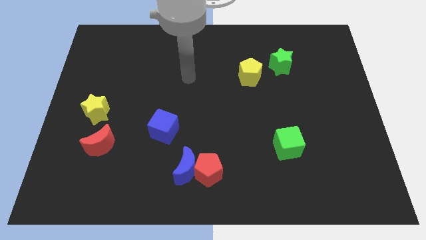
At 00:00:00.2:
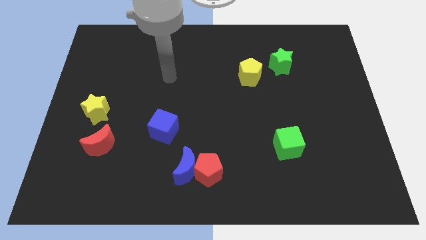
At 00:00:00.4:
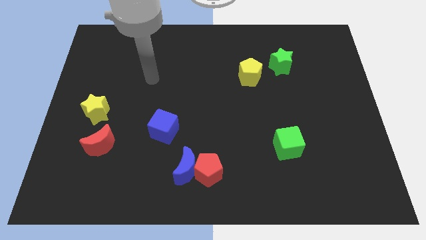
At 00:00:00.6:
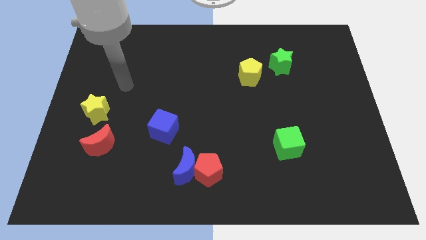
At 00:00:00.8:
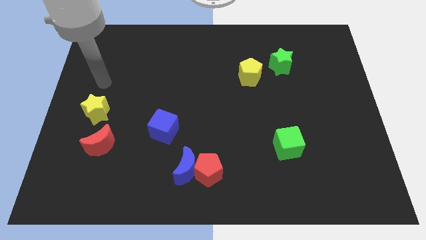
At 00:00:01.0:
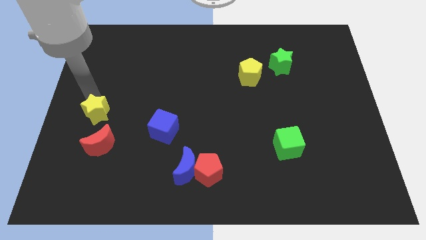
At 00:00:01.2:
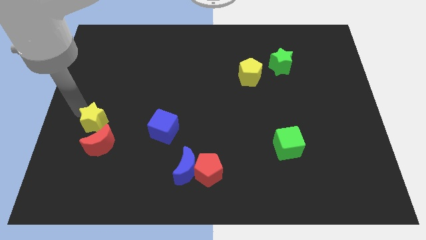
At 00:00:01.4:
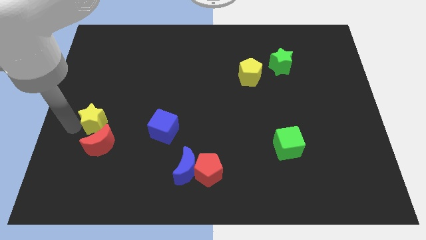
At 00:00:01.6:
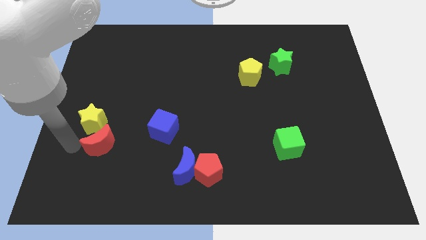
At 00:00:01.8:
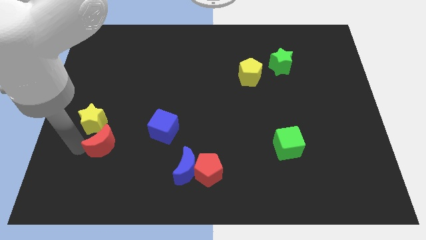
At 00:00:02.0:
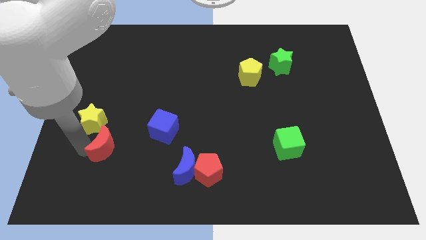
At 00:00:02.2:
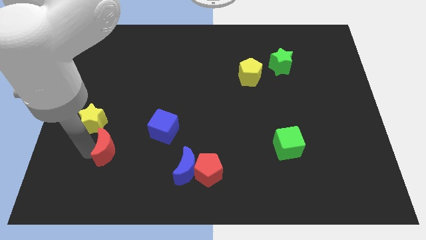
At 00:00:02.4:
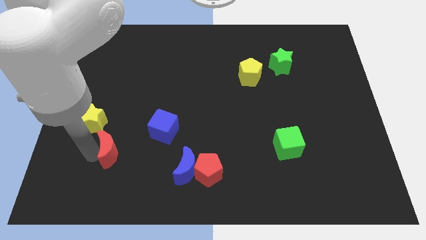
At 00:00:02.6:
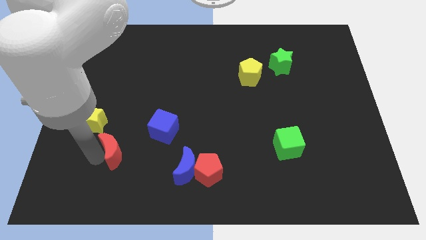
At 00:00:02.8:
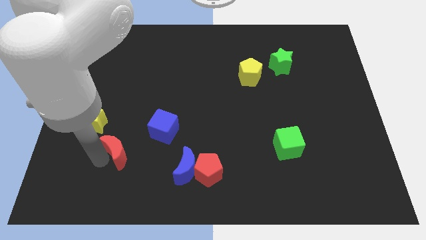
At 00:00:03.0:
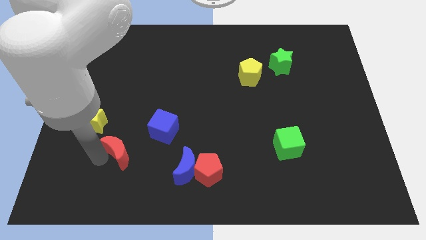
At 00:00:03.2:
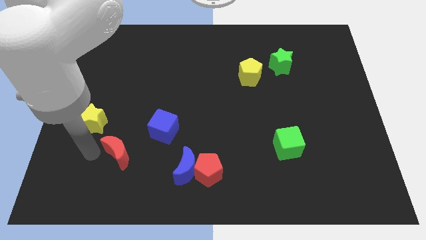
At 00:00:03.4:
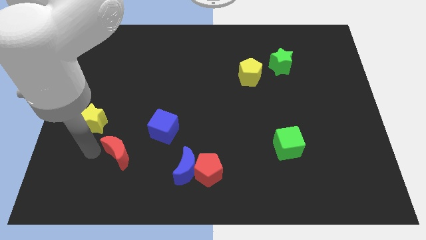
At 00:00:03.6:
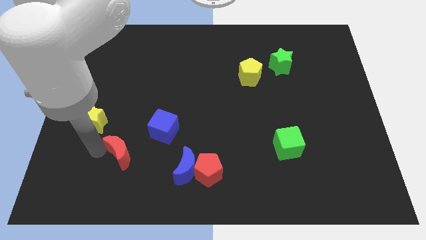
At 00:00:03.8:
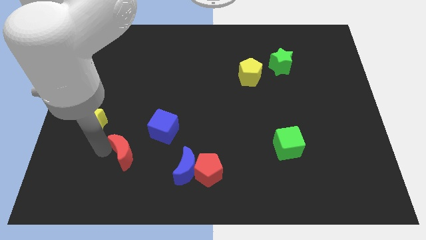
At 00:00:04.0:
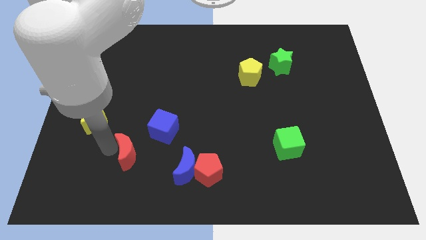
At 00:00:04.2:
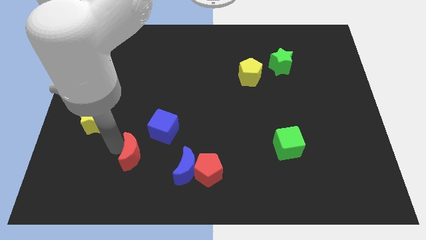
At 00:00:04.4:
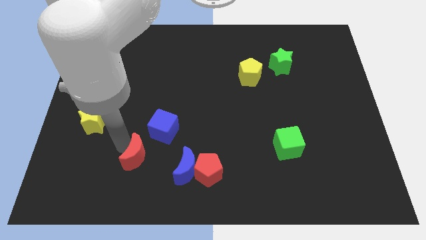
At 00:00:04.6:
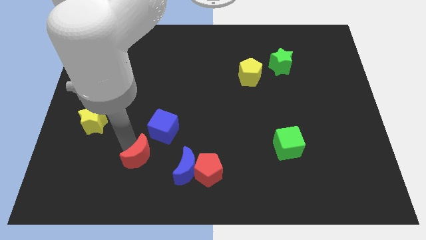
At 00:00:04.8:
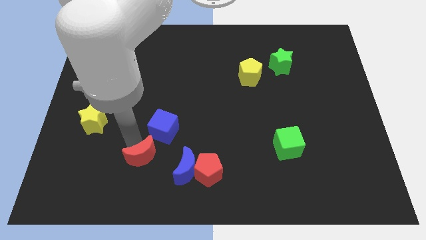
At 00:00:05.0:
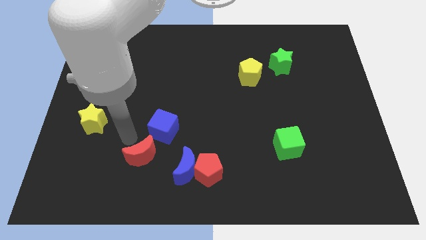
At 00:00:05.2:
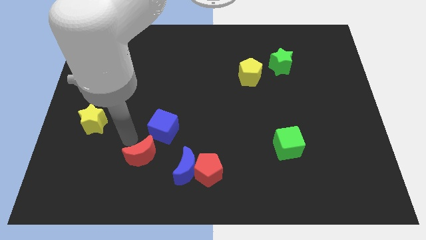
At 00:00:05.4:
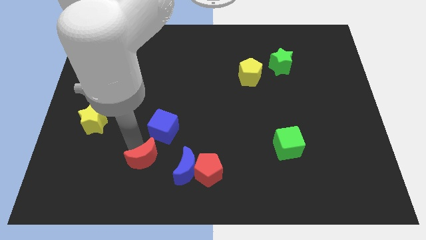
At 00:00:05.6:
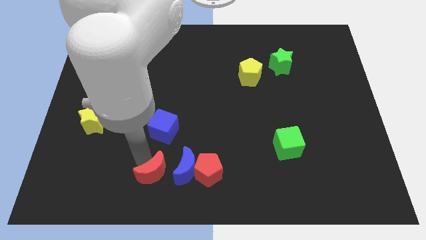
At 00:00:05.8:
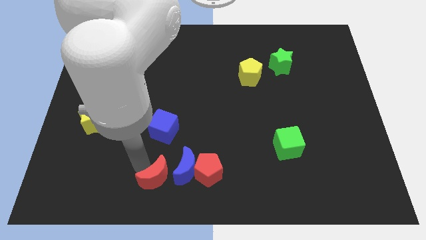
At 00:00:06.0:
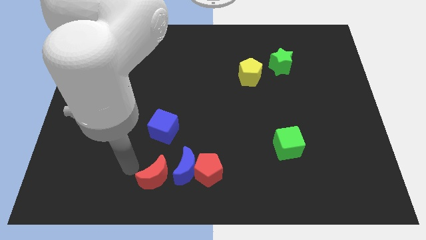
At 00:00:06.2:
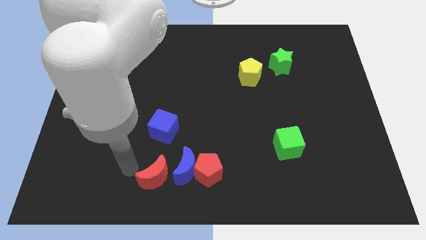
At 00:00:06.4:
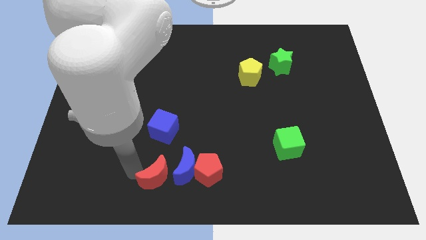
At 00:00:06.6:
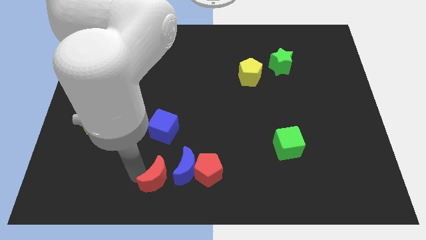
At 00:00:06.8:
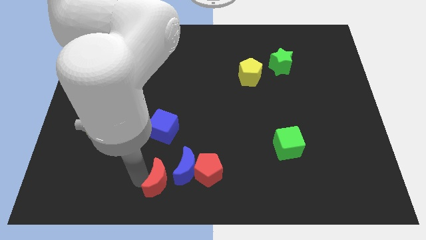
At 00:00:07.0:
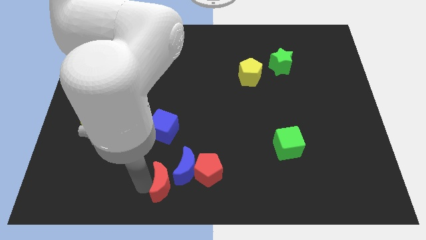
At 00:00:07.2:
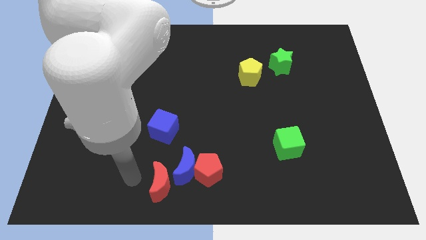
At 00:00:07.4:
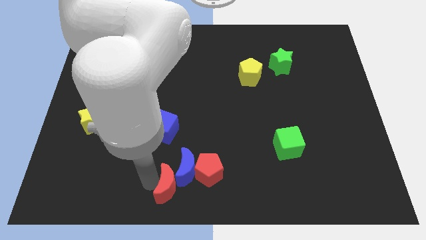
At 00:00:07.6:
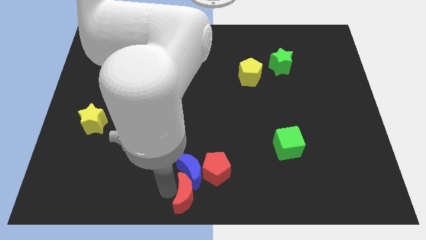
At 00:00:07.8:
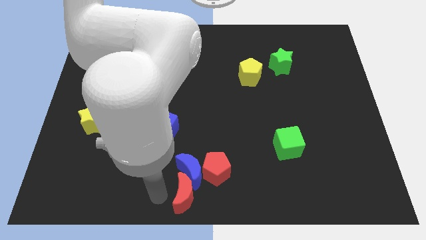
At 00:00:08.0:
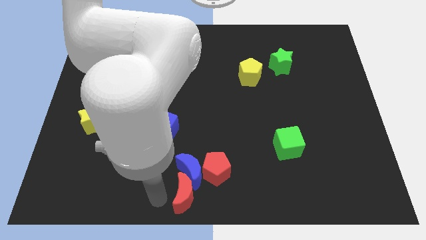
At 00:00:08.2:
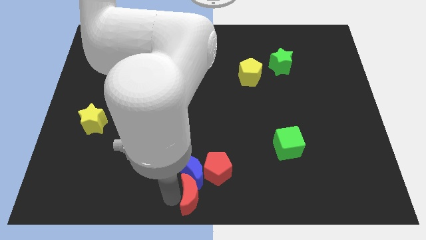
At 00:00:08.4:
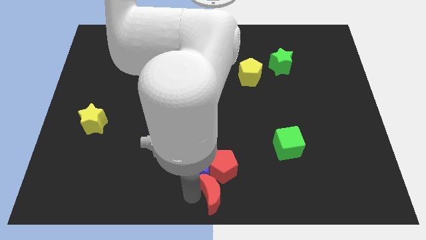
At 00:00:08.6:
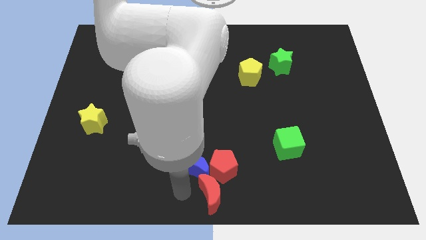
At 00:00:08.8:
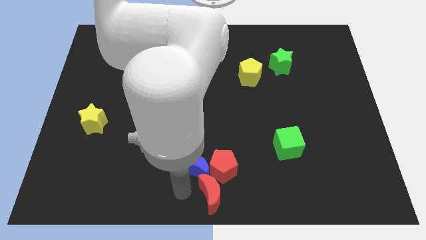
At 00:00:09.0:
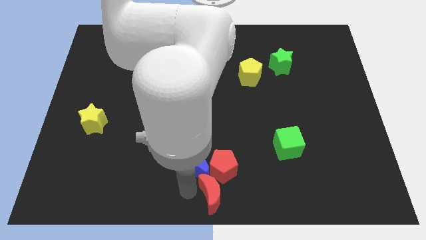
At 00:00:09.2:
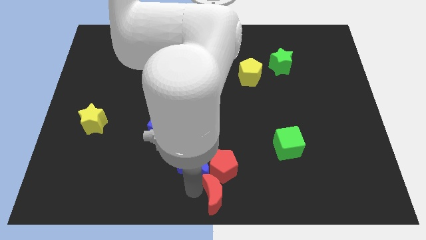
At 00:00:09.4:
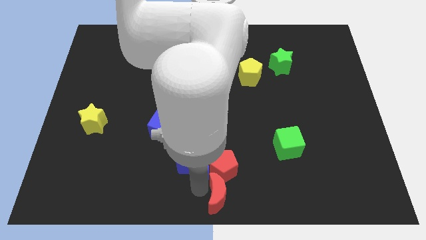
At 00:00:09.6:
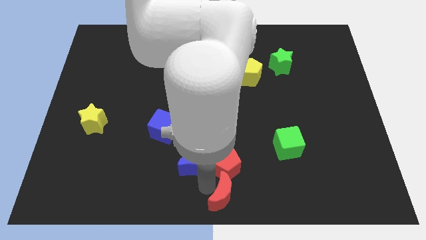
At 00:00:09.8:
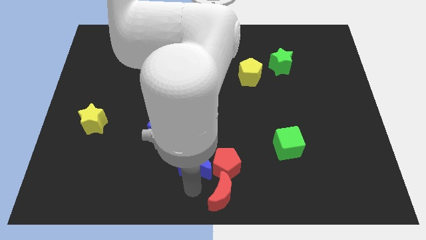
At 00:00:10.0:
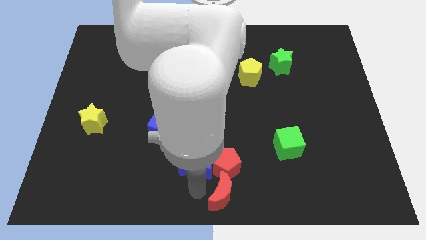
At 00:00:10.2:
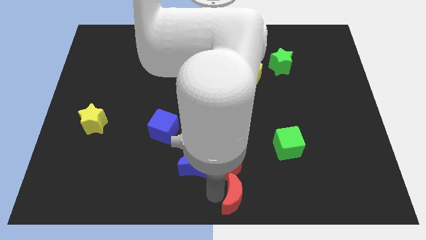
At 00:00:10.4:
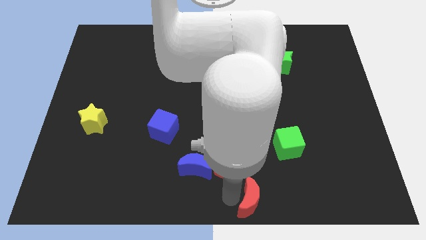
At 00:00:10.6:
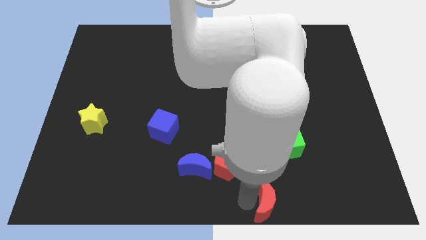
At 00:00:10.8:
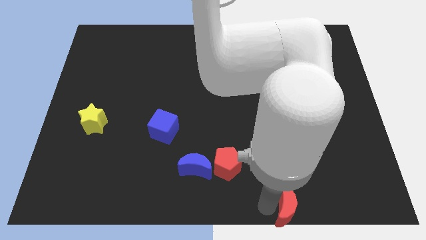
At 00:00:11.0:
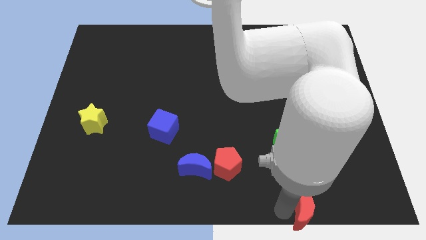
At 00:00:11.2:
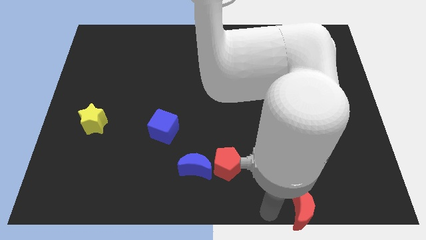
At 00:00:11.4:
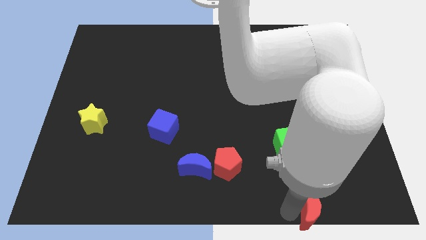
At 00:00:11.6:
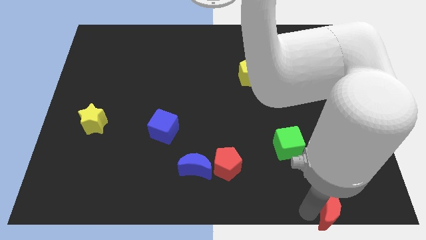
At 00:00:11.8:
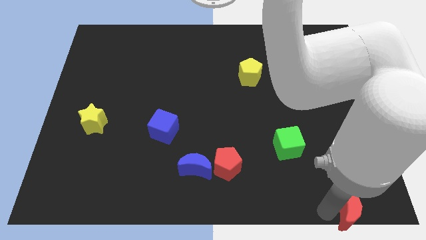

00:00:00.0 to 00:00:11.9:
slide the red moon to the bottom right corner
